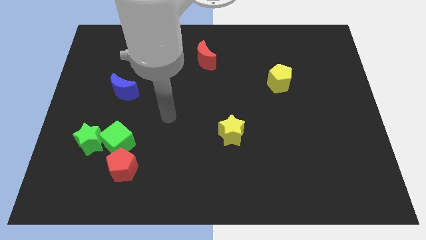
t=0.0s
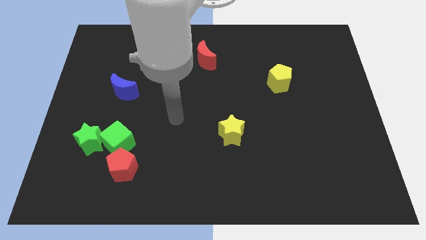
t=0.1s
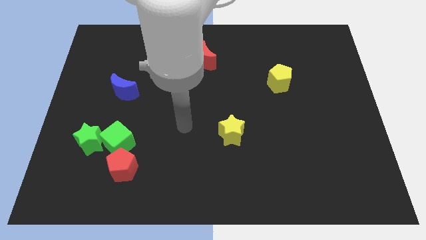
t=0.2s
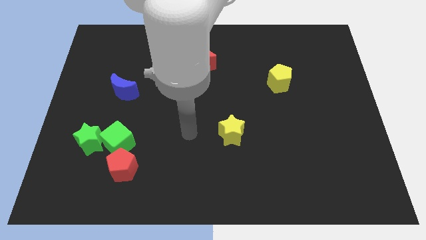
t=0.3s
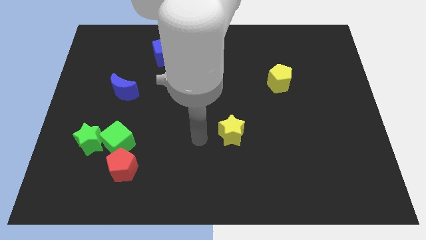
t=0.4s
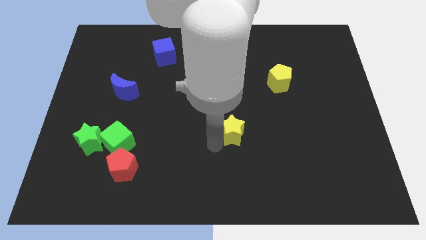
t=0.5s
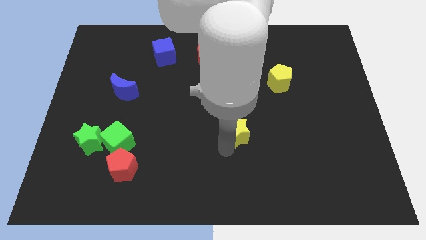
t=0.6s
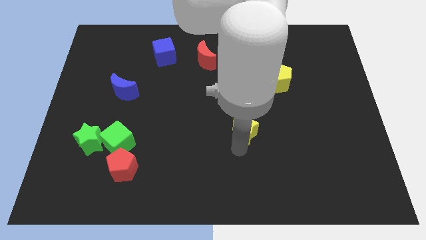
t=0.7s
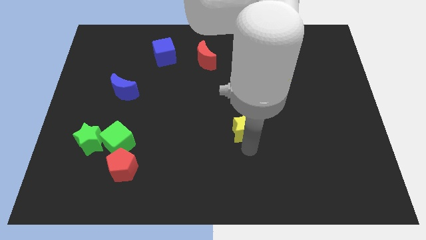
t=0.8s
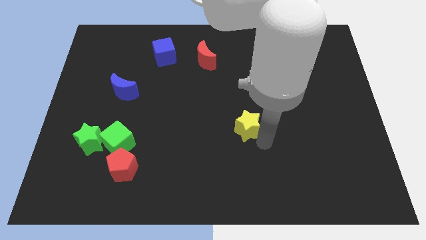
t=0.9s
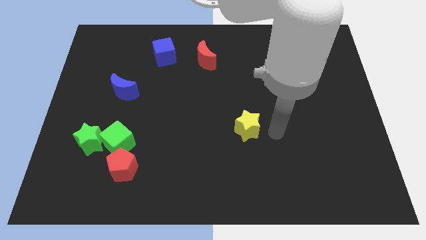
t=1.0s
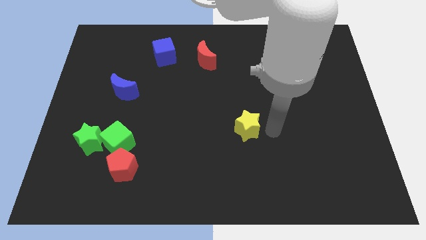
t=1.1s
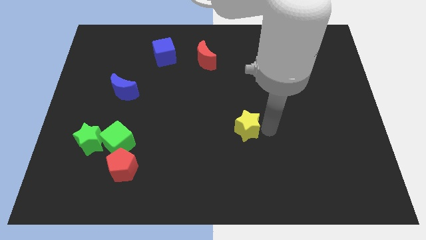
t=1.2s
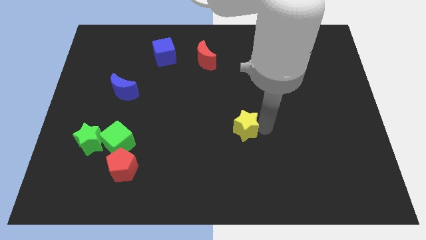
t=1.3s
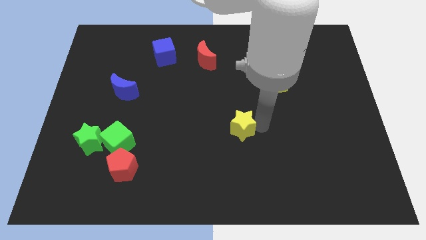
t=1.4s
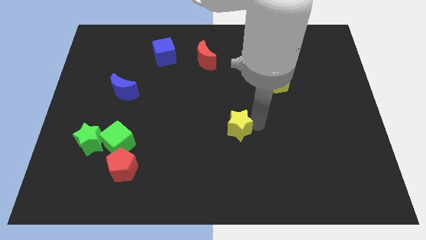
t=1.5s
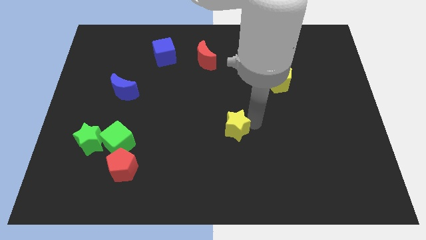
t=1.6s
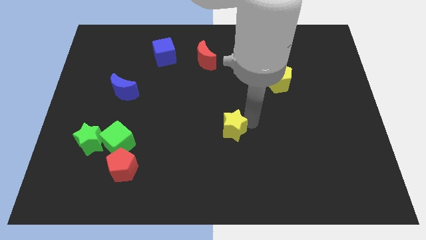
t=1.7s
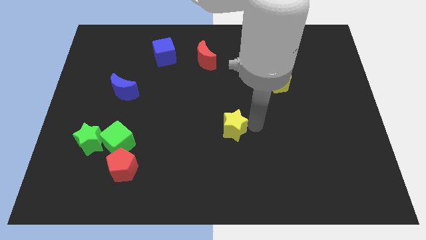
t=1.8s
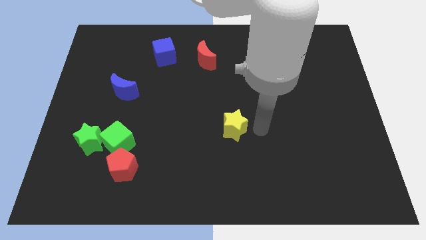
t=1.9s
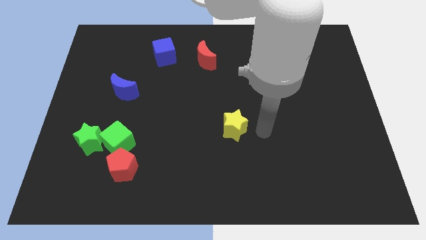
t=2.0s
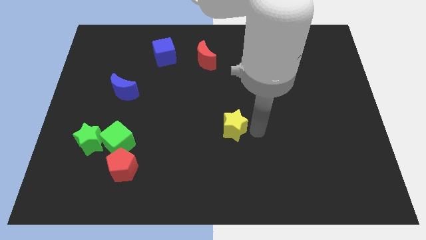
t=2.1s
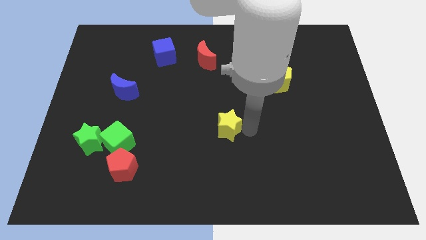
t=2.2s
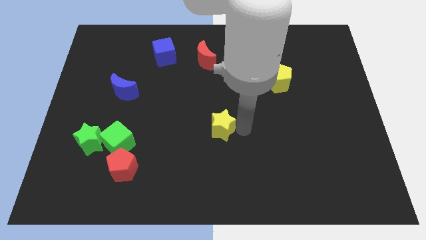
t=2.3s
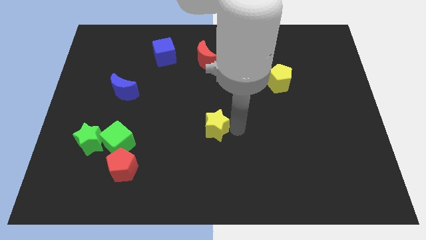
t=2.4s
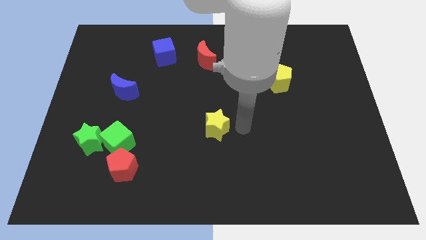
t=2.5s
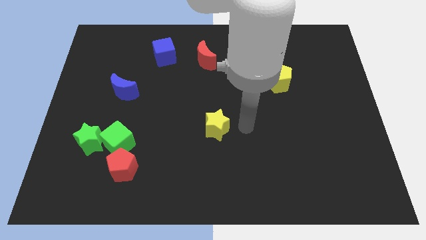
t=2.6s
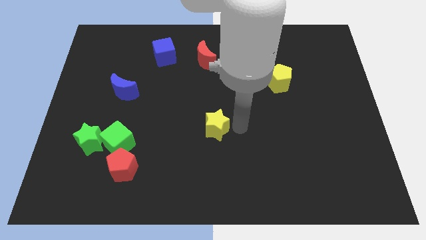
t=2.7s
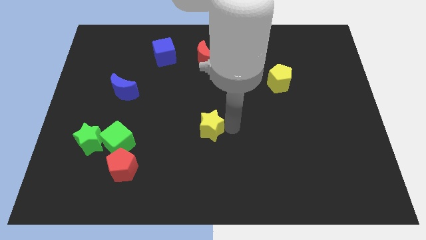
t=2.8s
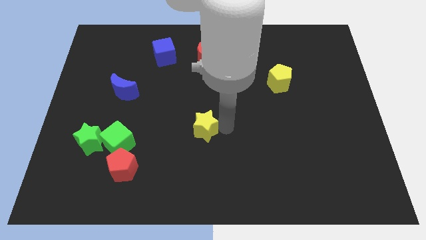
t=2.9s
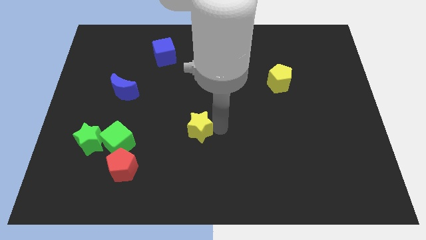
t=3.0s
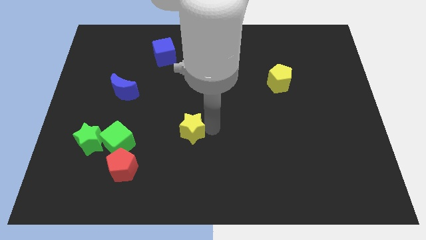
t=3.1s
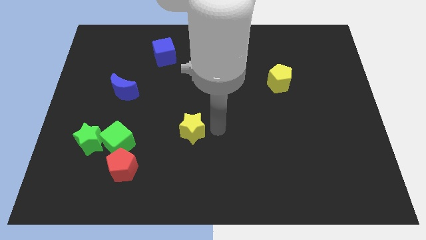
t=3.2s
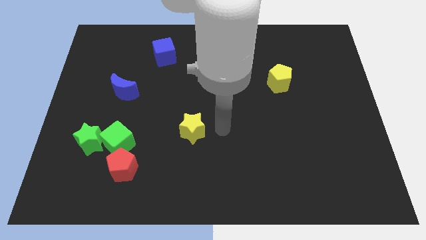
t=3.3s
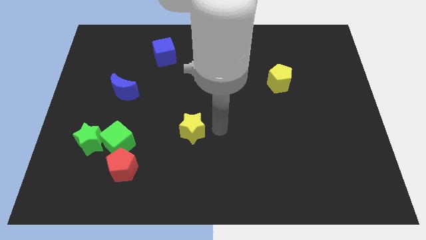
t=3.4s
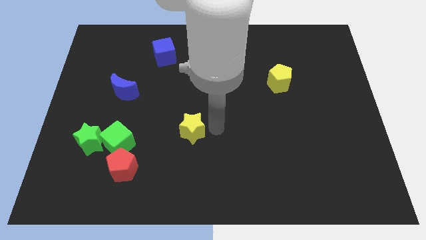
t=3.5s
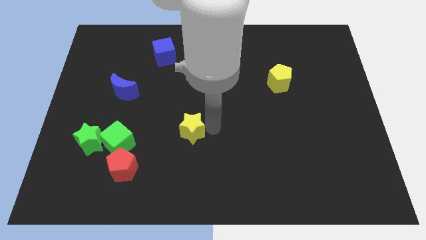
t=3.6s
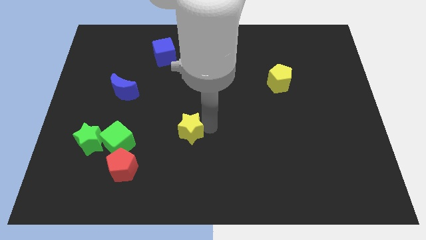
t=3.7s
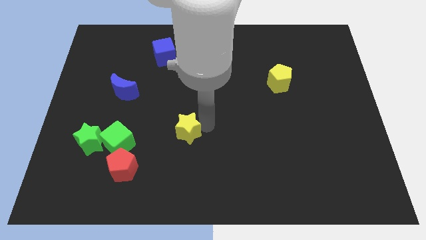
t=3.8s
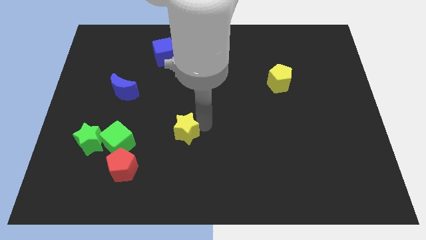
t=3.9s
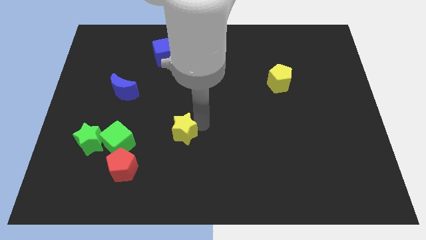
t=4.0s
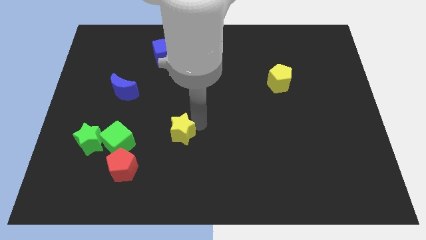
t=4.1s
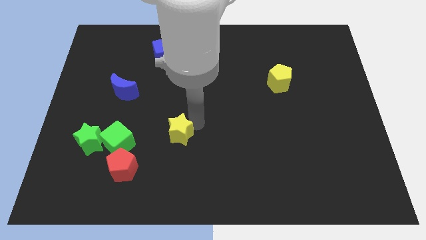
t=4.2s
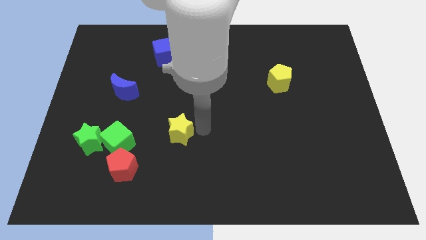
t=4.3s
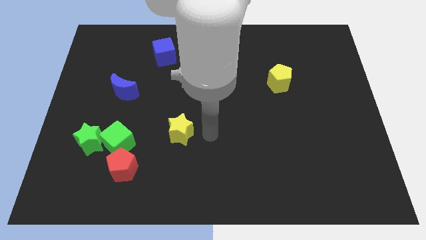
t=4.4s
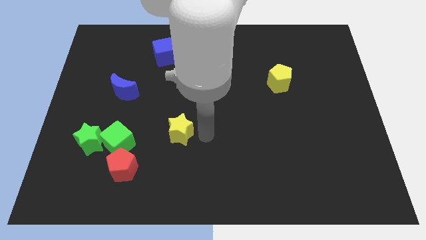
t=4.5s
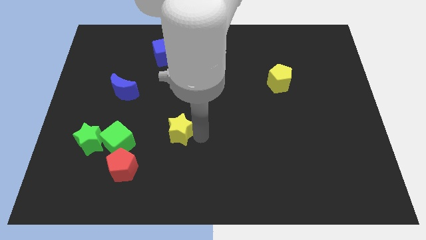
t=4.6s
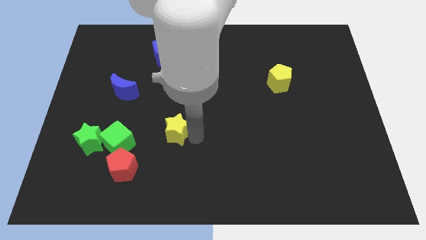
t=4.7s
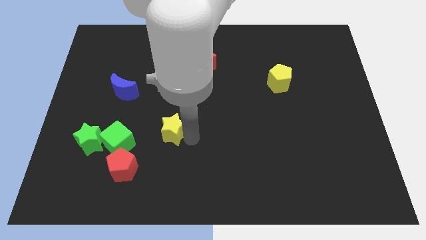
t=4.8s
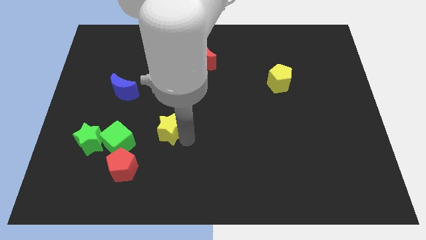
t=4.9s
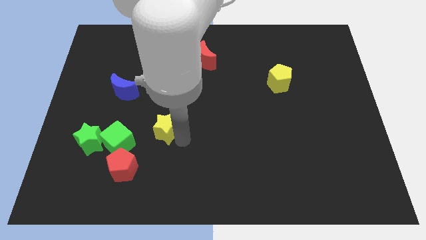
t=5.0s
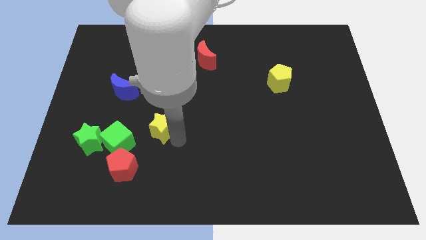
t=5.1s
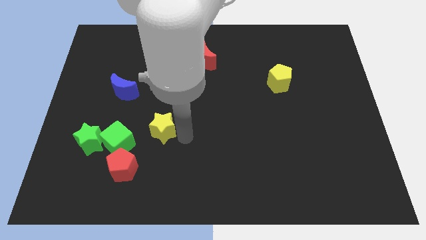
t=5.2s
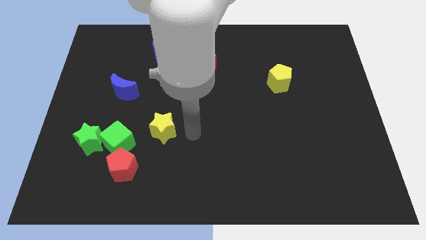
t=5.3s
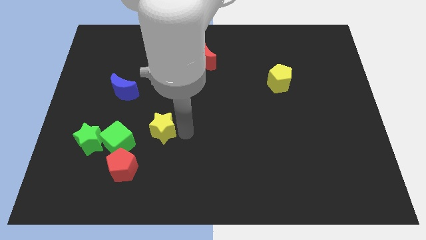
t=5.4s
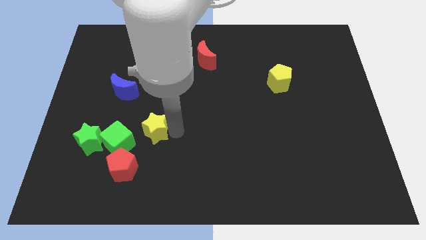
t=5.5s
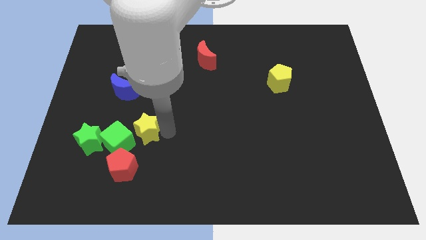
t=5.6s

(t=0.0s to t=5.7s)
slide the yellow star to the top side of the red pentagon

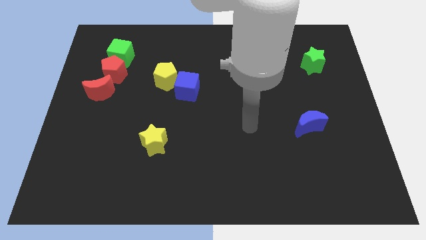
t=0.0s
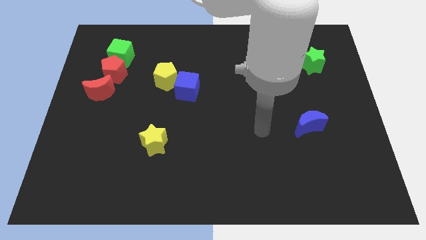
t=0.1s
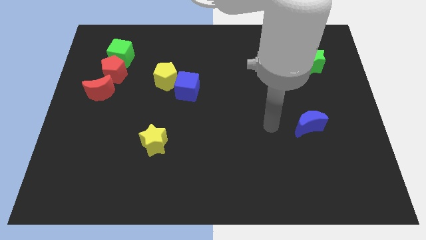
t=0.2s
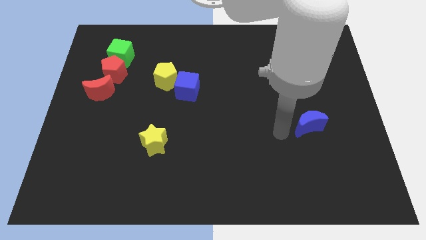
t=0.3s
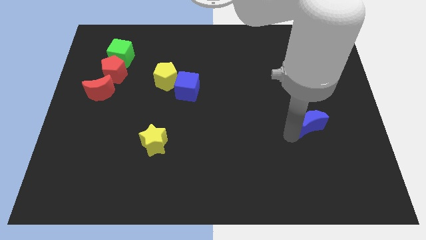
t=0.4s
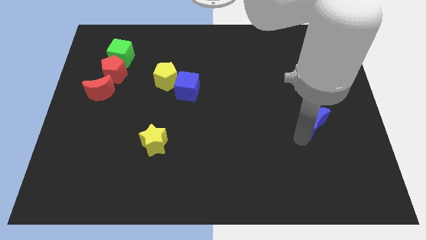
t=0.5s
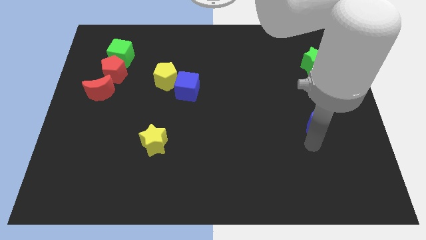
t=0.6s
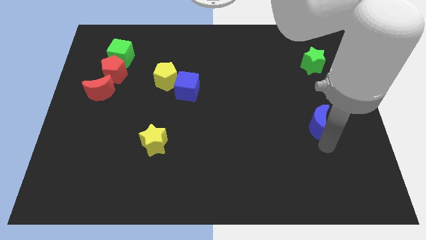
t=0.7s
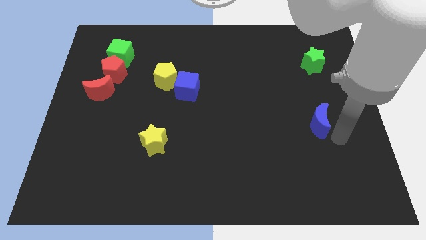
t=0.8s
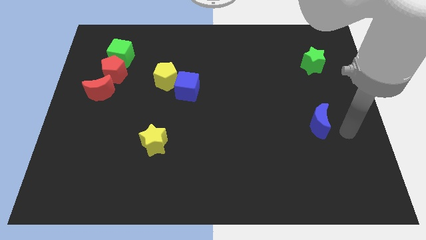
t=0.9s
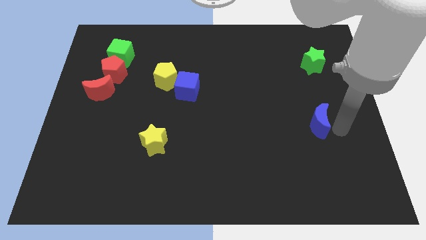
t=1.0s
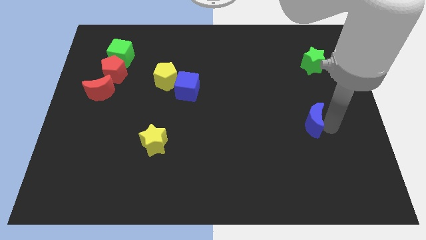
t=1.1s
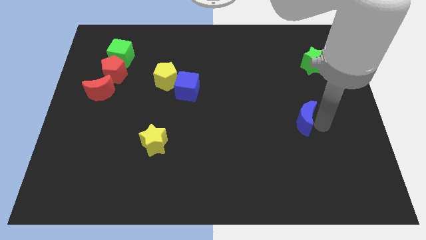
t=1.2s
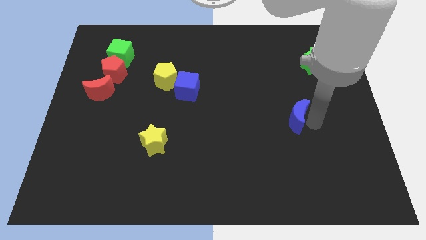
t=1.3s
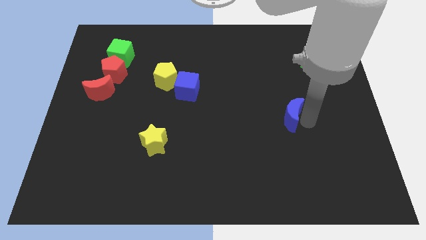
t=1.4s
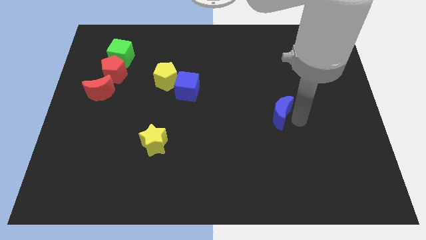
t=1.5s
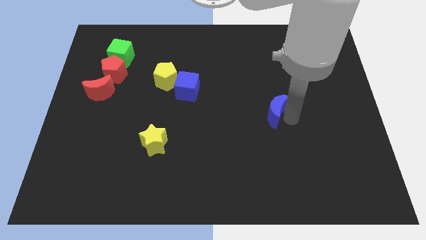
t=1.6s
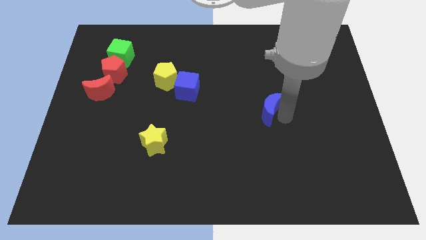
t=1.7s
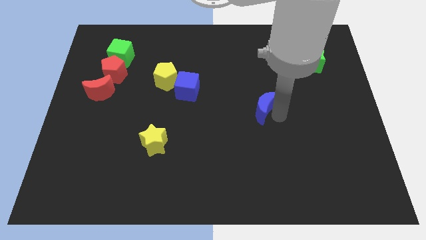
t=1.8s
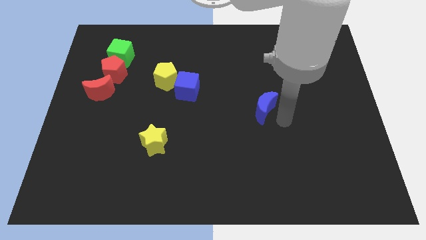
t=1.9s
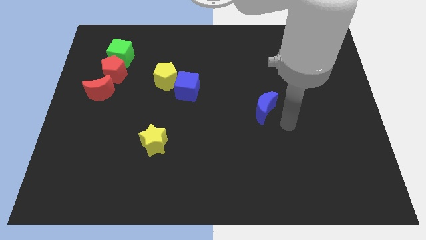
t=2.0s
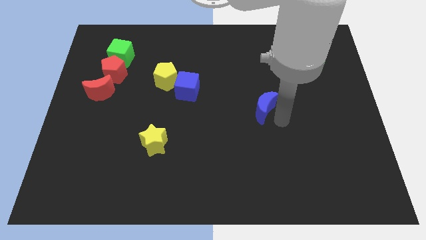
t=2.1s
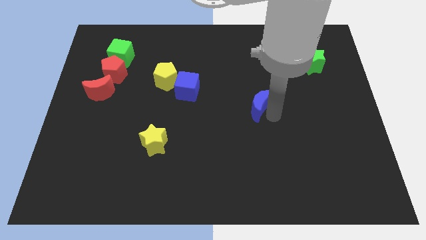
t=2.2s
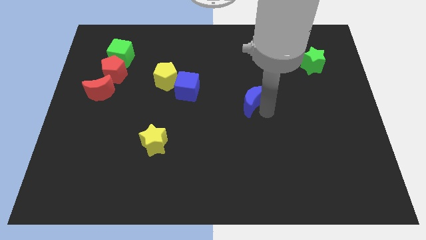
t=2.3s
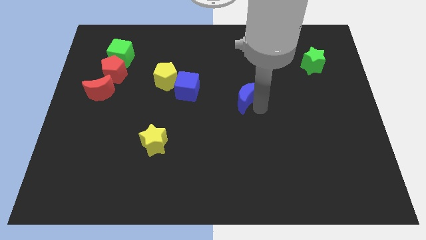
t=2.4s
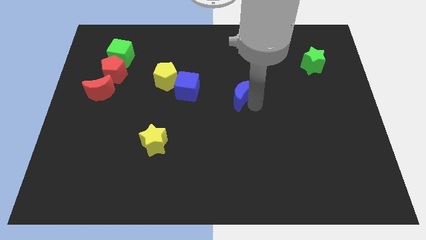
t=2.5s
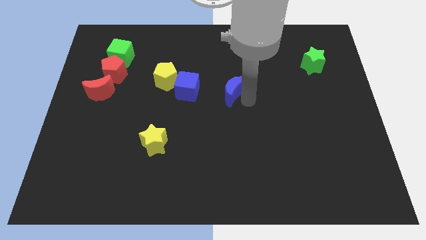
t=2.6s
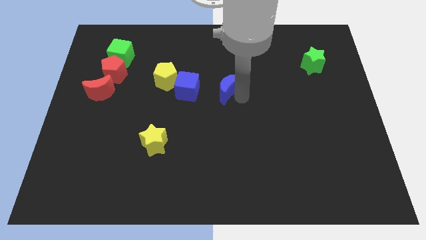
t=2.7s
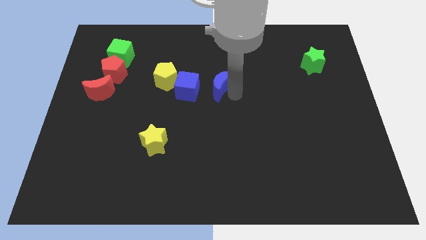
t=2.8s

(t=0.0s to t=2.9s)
slide the blue moon right of the yellow pentagon
